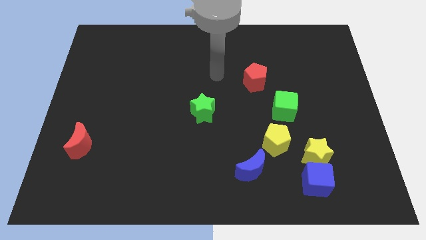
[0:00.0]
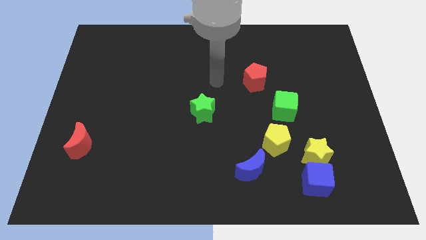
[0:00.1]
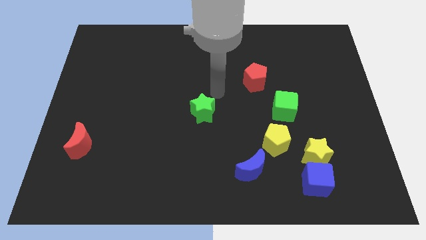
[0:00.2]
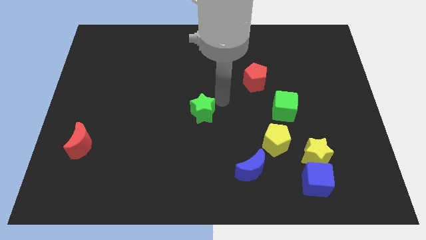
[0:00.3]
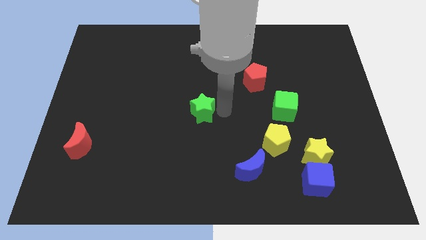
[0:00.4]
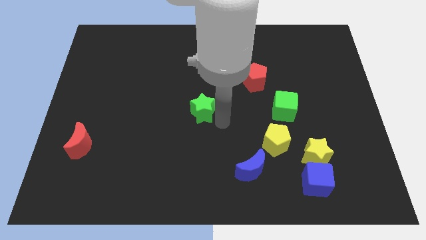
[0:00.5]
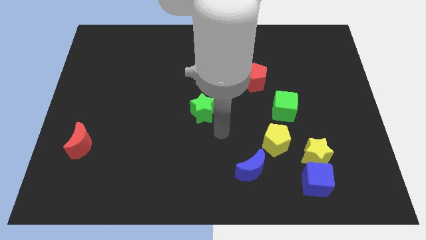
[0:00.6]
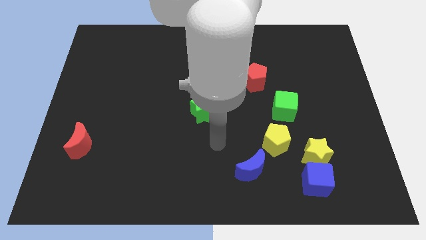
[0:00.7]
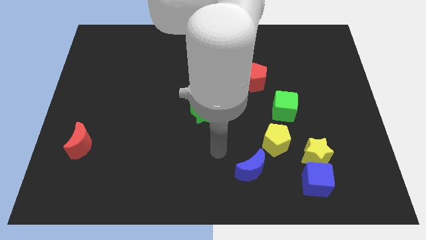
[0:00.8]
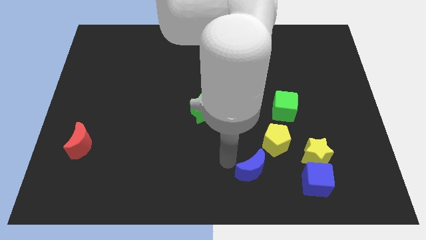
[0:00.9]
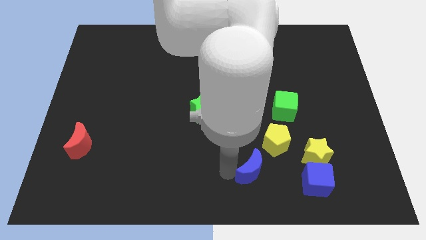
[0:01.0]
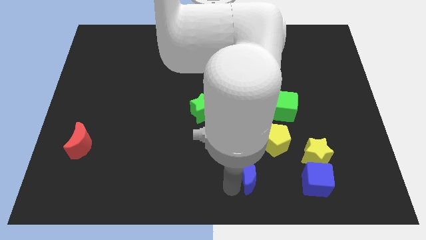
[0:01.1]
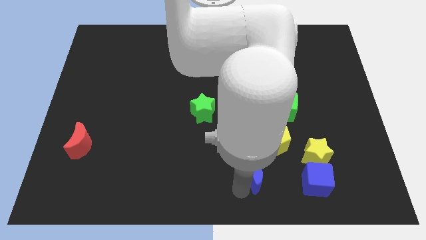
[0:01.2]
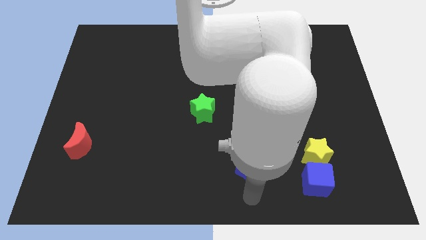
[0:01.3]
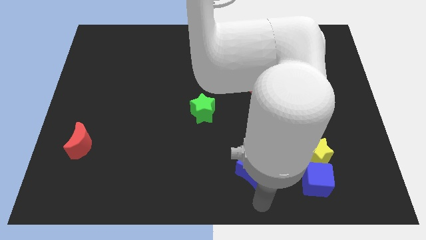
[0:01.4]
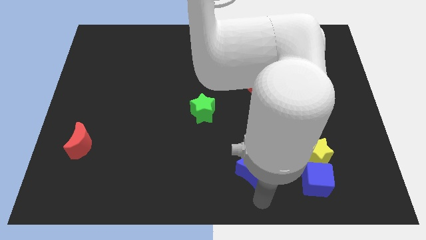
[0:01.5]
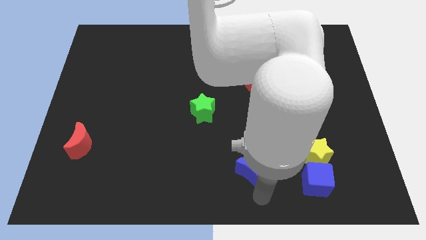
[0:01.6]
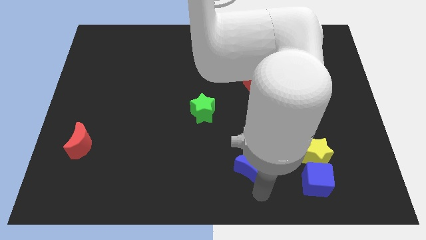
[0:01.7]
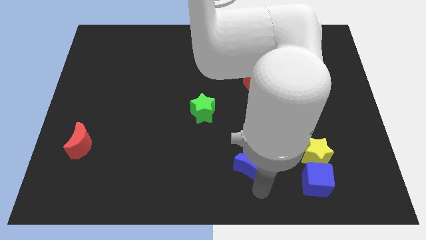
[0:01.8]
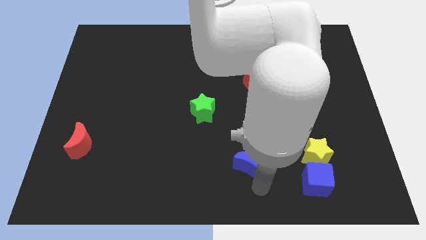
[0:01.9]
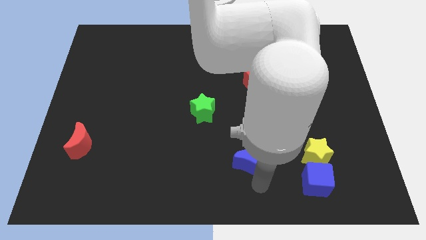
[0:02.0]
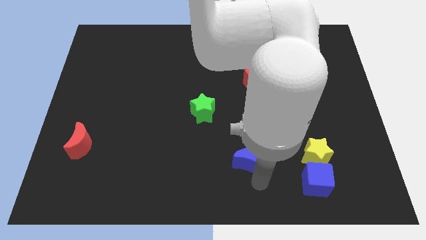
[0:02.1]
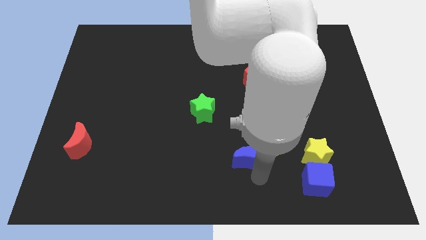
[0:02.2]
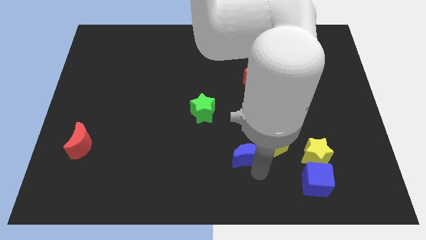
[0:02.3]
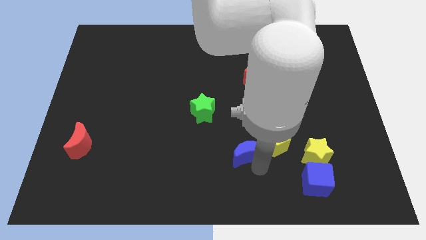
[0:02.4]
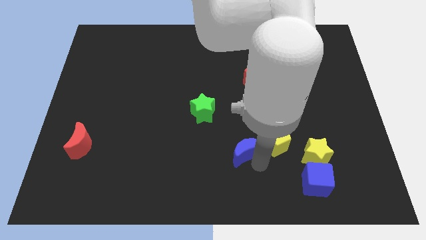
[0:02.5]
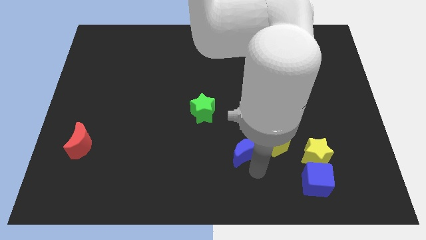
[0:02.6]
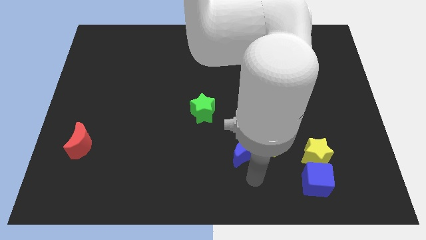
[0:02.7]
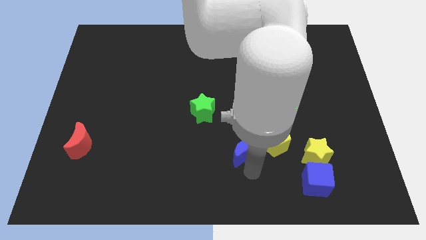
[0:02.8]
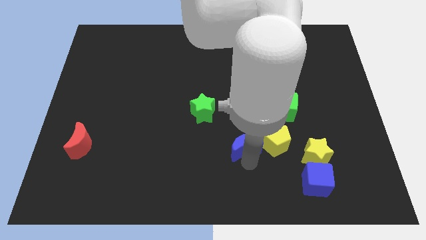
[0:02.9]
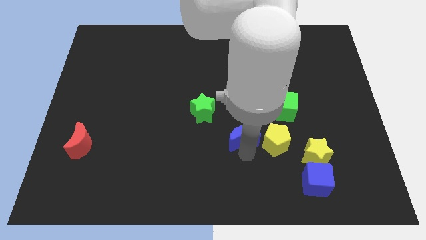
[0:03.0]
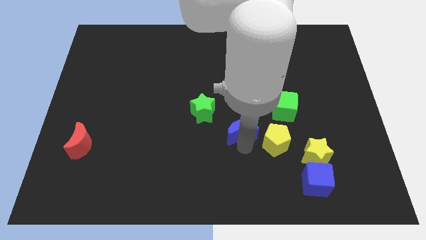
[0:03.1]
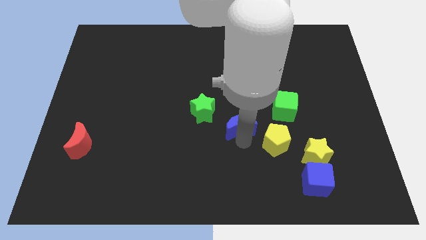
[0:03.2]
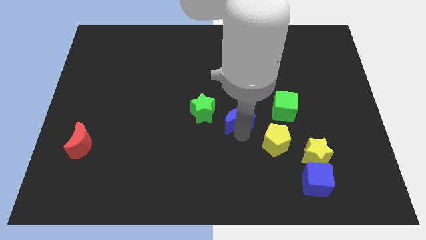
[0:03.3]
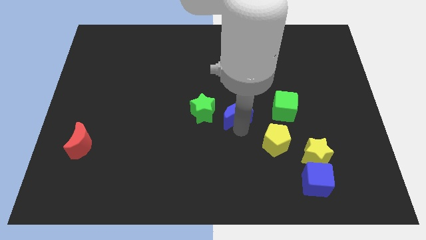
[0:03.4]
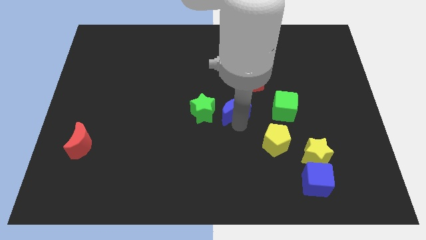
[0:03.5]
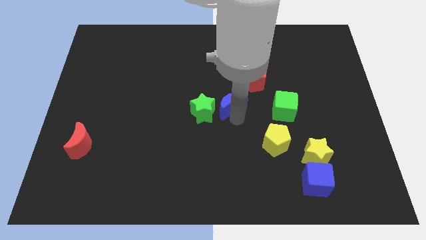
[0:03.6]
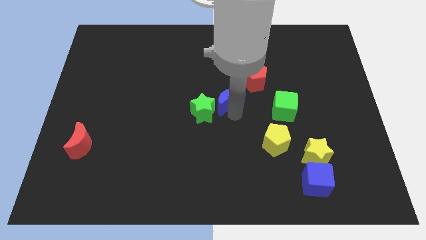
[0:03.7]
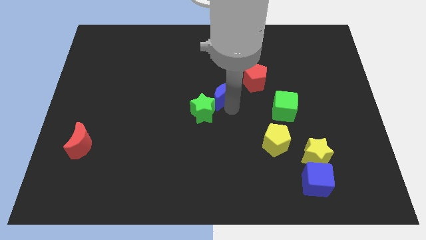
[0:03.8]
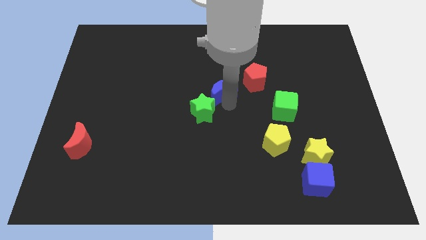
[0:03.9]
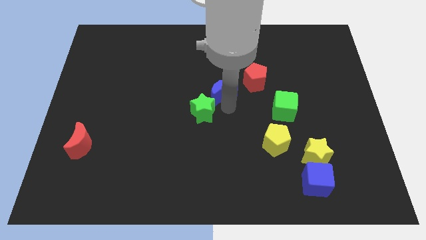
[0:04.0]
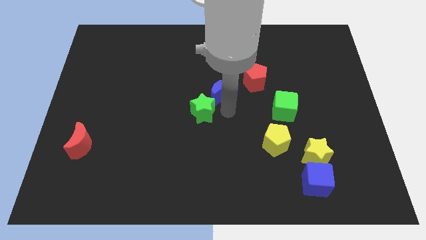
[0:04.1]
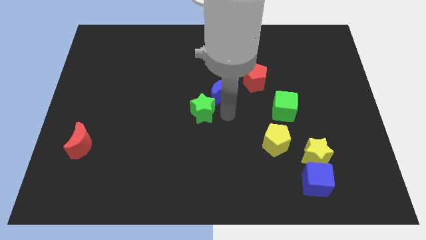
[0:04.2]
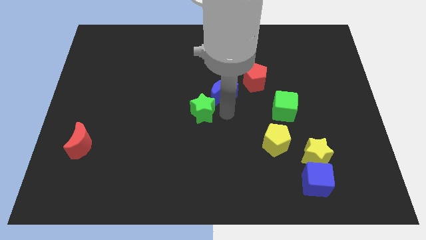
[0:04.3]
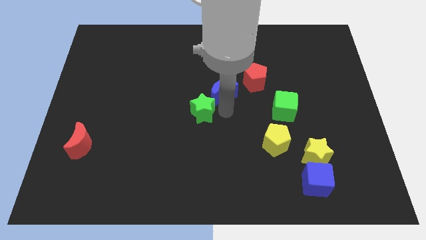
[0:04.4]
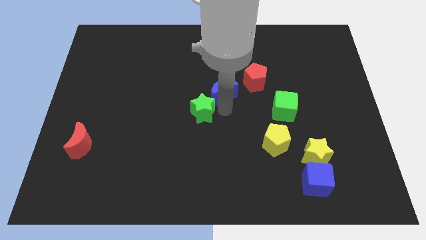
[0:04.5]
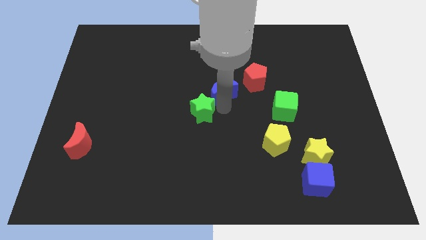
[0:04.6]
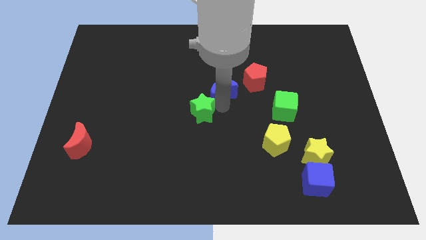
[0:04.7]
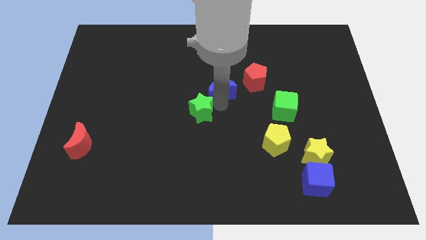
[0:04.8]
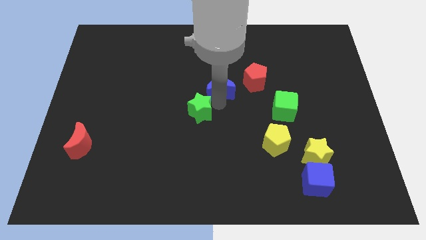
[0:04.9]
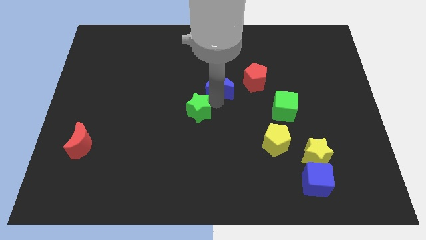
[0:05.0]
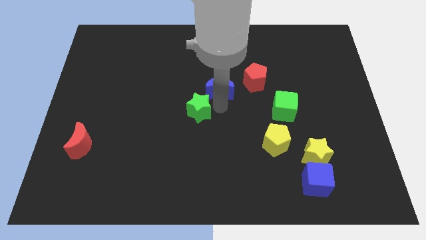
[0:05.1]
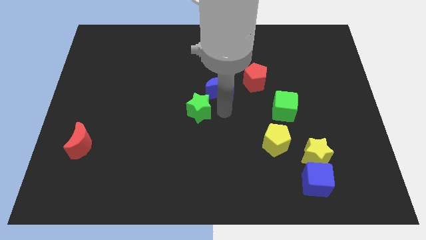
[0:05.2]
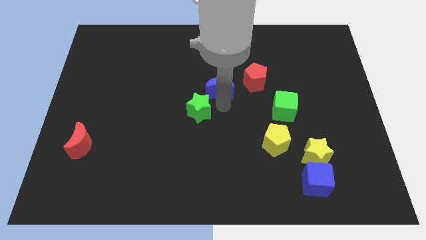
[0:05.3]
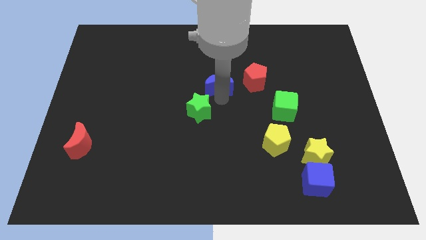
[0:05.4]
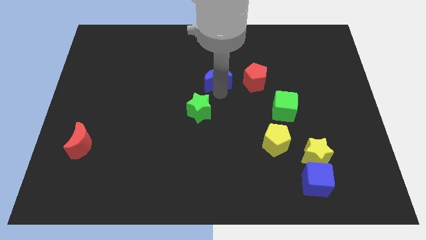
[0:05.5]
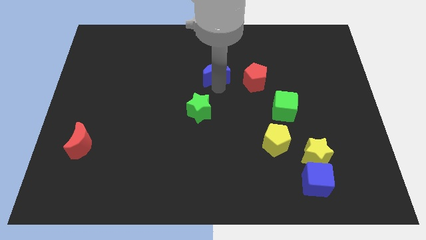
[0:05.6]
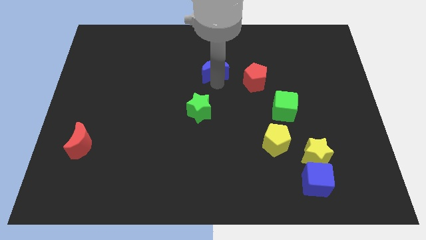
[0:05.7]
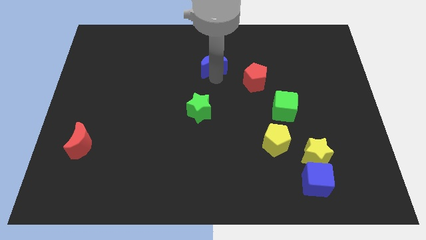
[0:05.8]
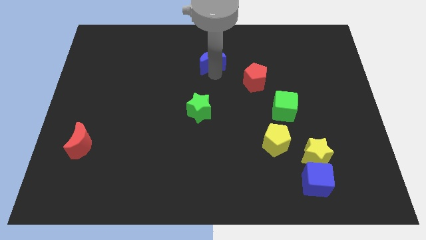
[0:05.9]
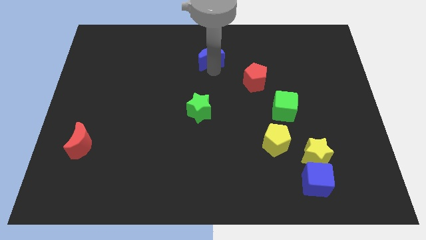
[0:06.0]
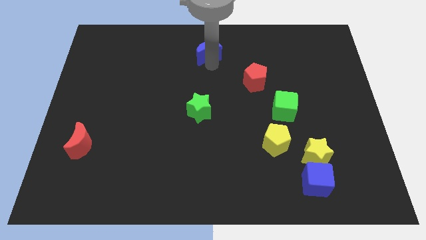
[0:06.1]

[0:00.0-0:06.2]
move the blue moon to the top

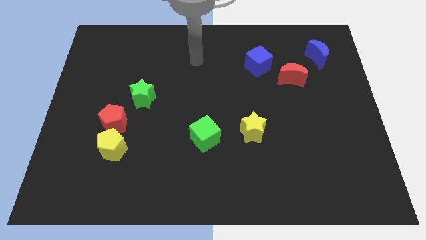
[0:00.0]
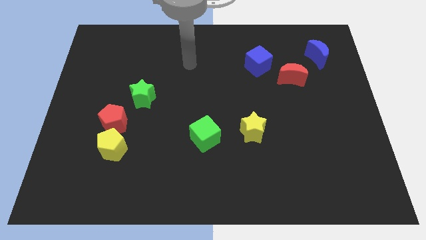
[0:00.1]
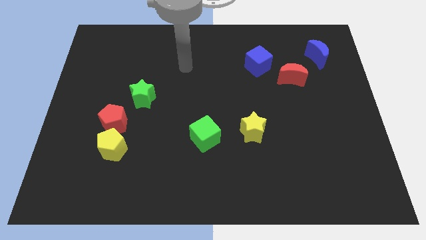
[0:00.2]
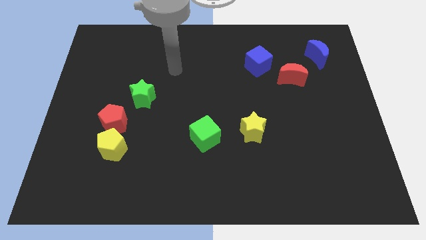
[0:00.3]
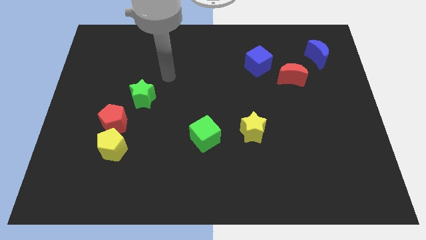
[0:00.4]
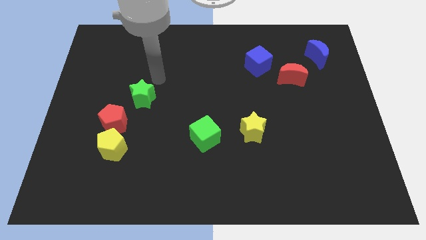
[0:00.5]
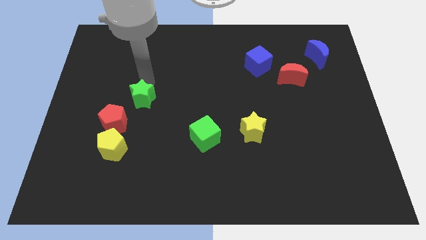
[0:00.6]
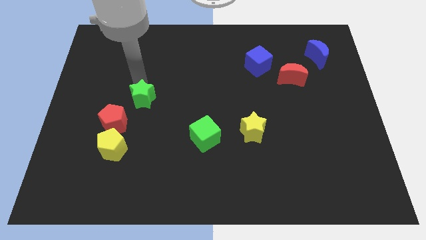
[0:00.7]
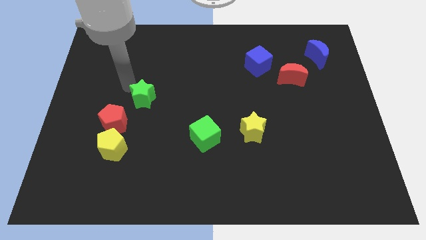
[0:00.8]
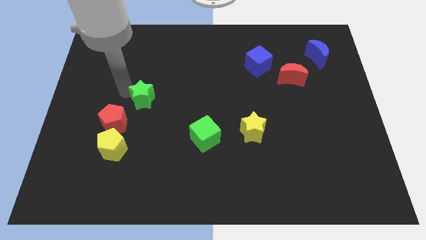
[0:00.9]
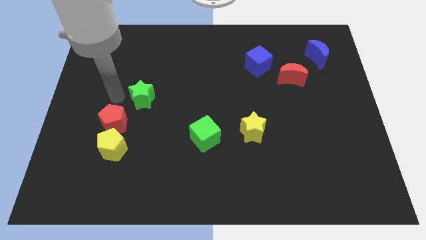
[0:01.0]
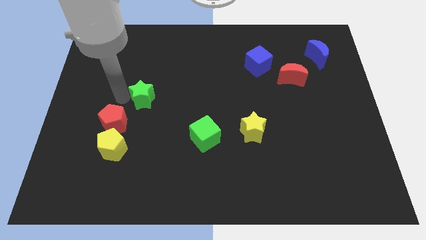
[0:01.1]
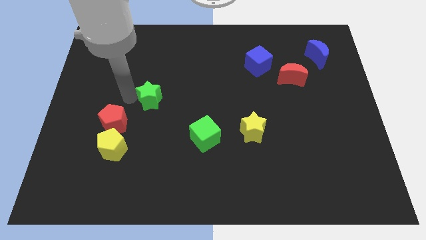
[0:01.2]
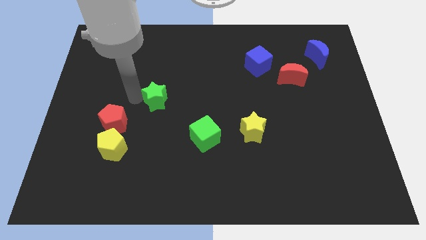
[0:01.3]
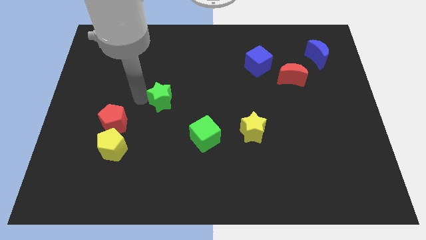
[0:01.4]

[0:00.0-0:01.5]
slide the green star to the middle
